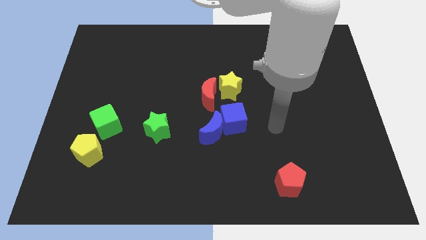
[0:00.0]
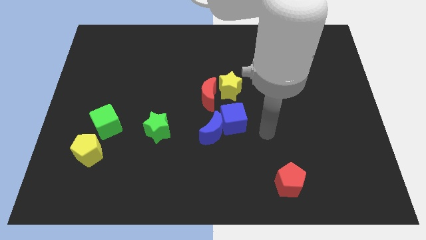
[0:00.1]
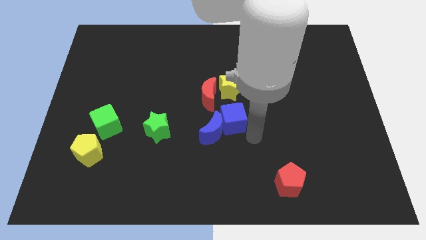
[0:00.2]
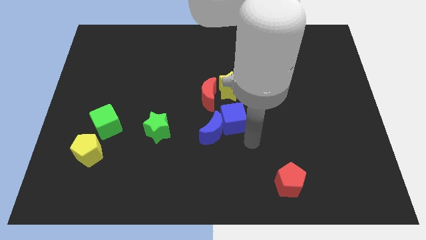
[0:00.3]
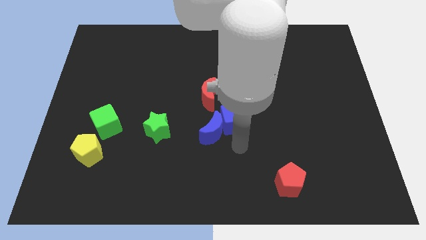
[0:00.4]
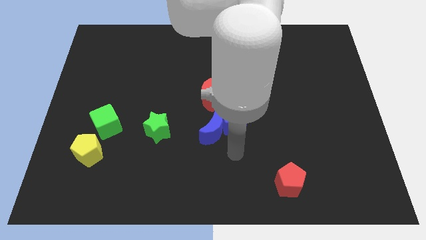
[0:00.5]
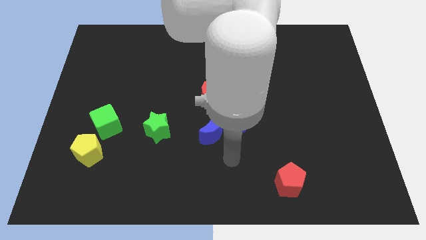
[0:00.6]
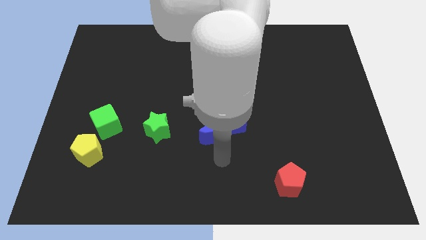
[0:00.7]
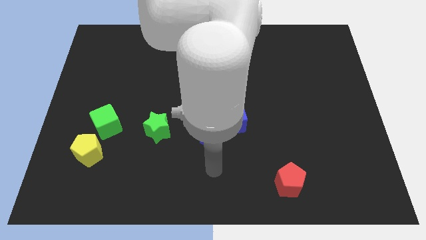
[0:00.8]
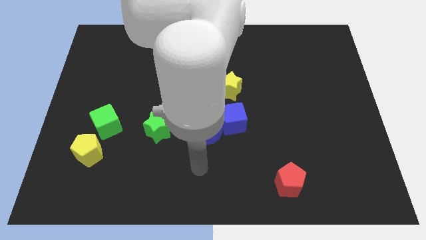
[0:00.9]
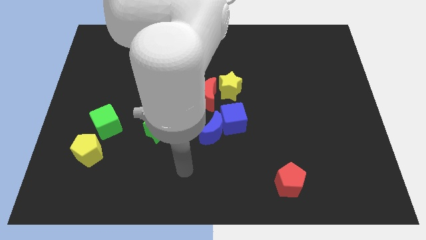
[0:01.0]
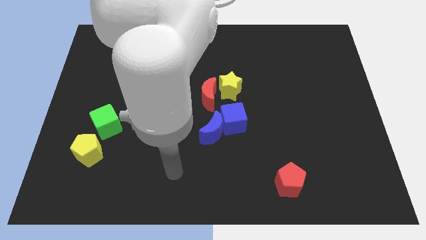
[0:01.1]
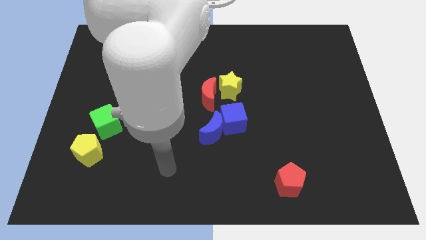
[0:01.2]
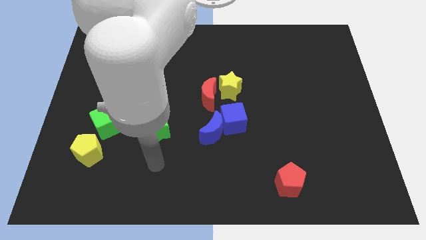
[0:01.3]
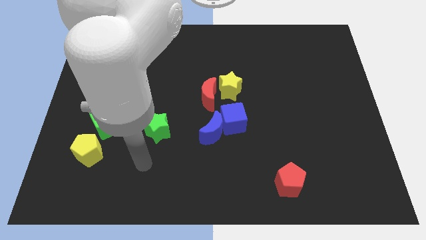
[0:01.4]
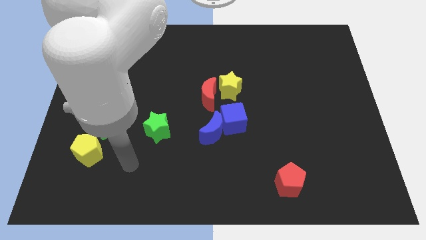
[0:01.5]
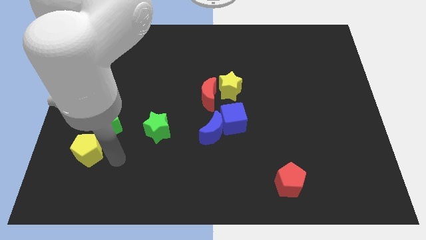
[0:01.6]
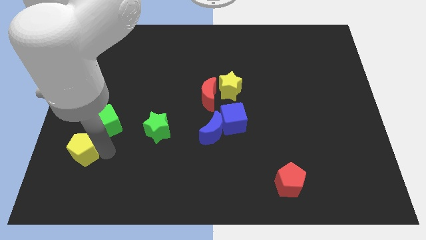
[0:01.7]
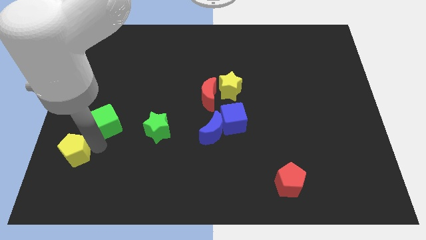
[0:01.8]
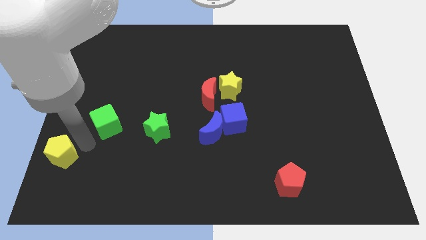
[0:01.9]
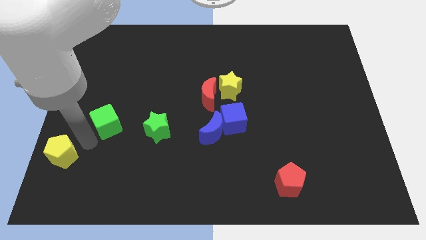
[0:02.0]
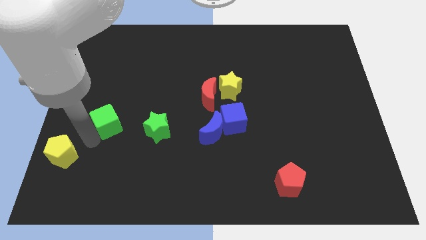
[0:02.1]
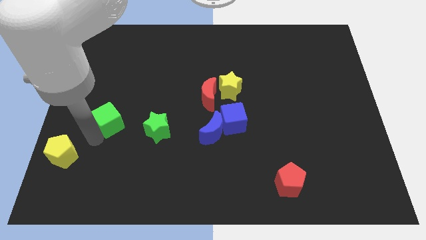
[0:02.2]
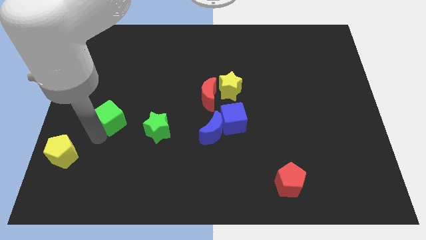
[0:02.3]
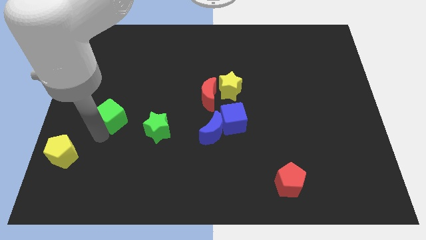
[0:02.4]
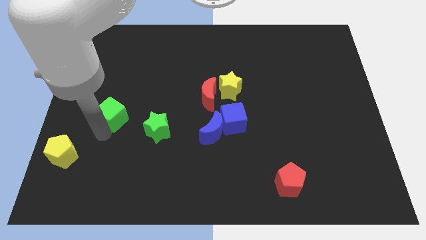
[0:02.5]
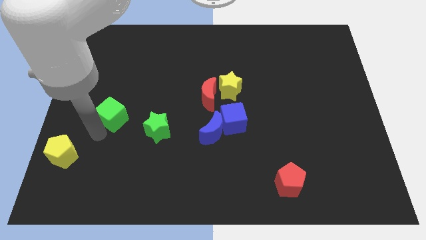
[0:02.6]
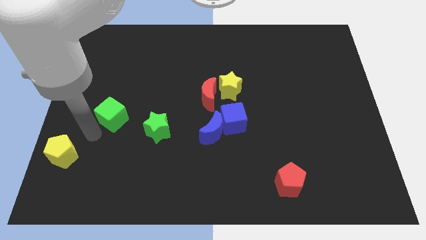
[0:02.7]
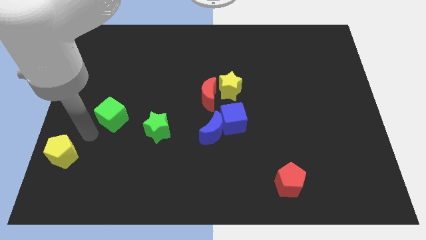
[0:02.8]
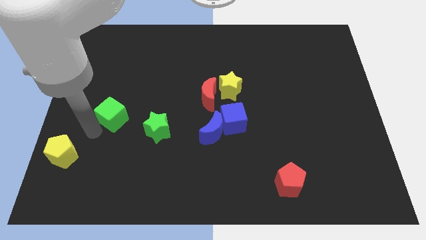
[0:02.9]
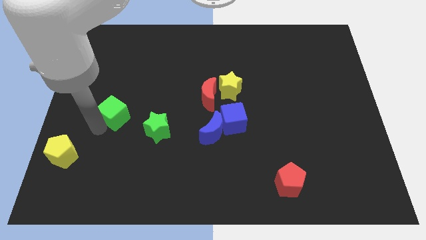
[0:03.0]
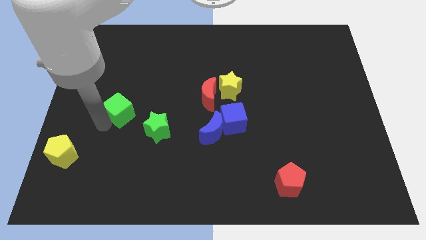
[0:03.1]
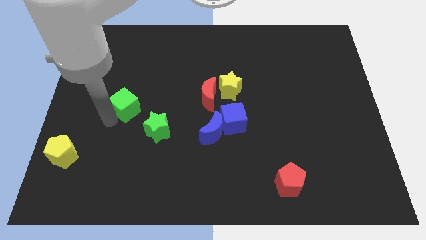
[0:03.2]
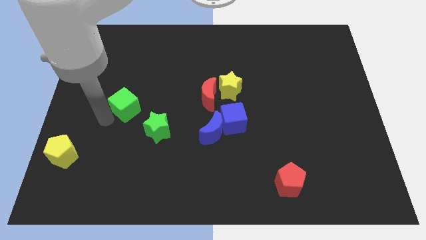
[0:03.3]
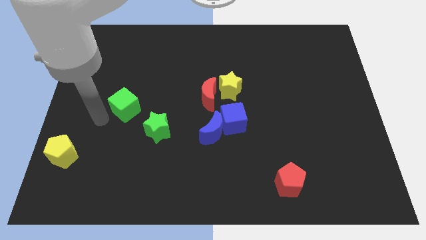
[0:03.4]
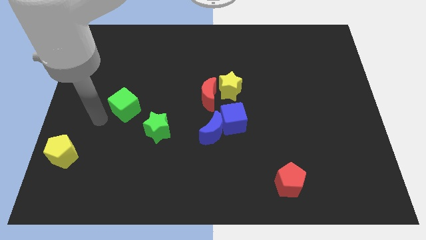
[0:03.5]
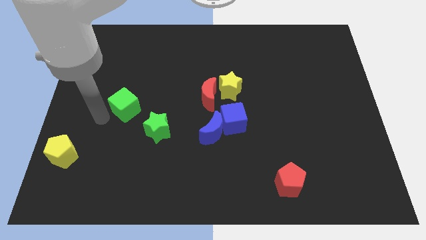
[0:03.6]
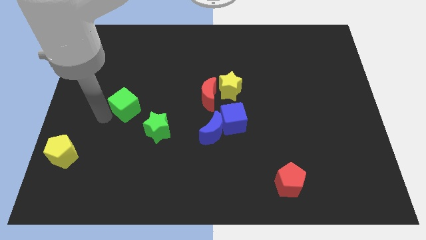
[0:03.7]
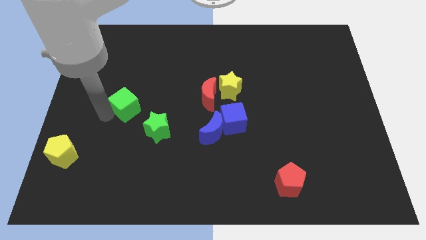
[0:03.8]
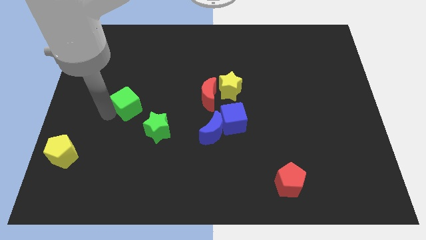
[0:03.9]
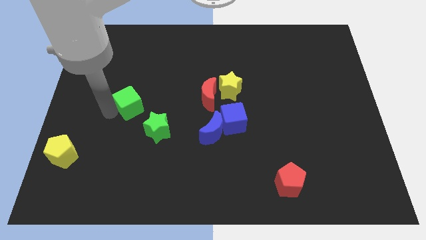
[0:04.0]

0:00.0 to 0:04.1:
slide the green cube up and to the right slightly

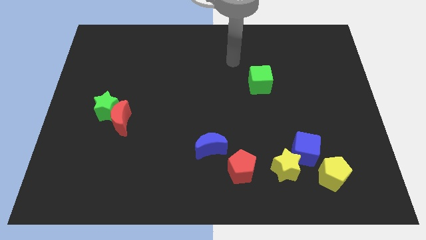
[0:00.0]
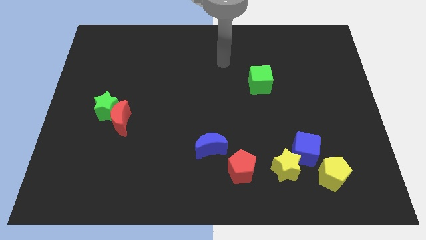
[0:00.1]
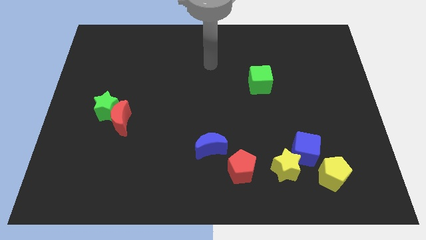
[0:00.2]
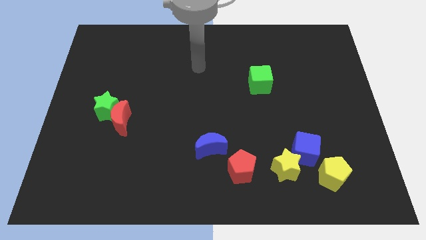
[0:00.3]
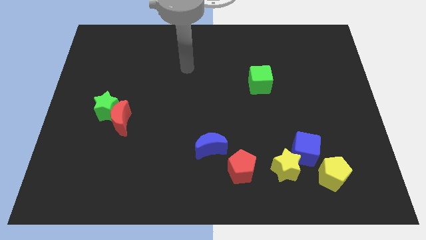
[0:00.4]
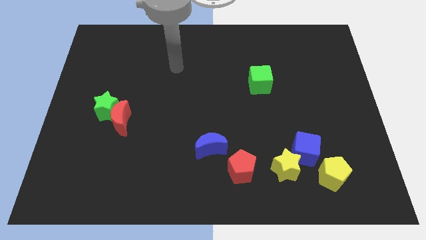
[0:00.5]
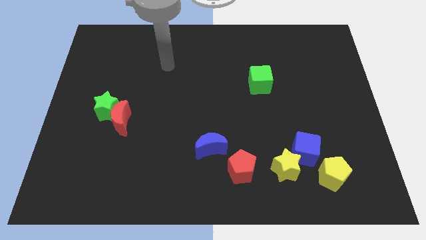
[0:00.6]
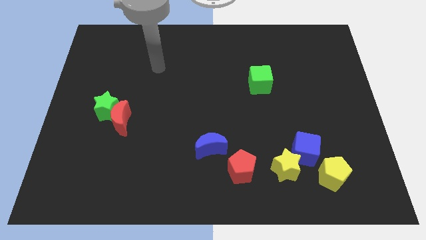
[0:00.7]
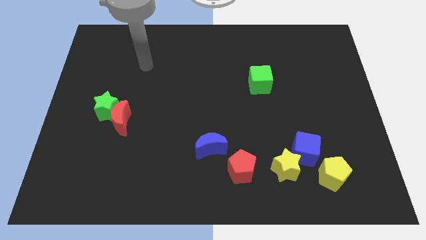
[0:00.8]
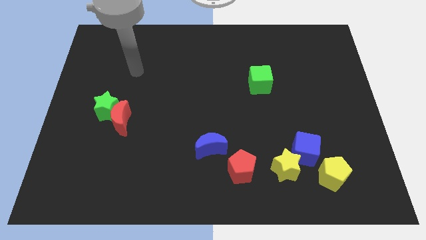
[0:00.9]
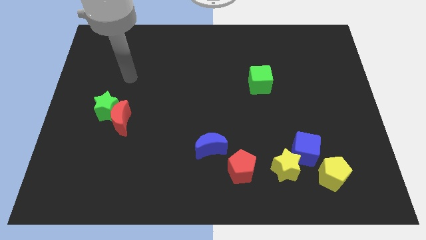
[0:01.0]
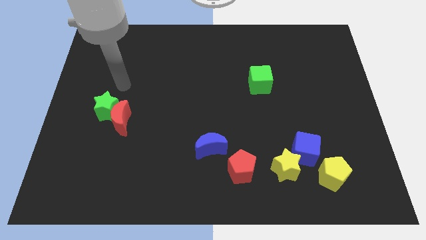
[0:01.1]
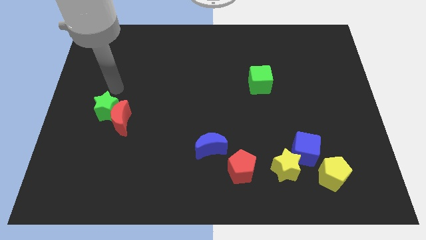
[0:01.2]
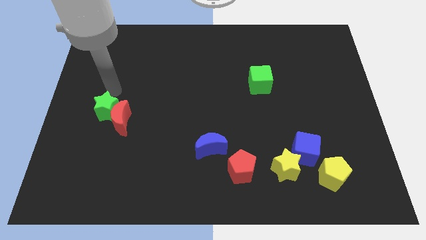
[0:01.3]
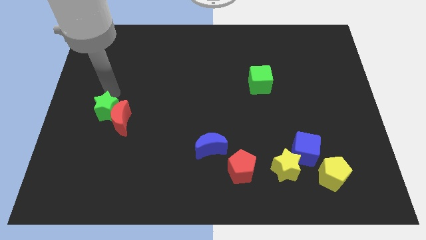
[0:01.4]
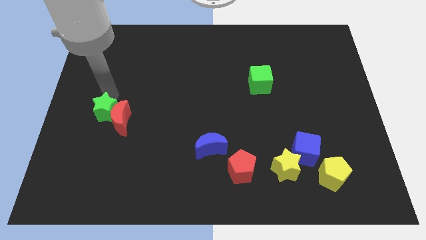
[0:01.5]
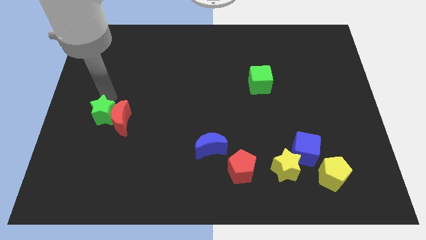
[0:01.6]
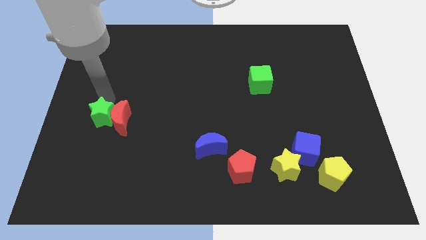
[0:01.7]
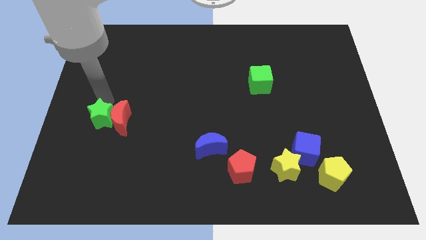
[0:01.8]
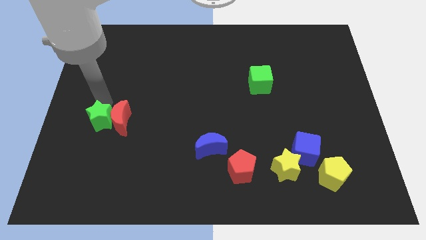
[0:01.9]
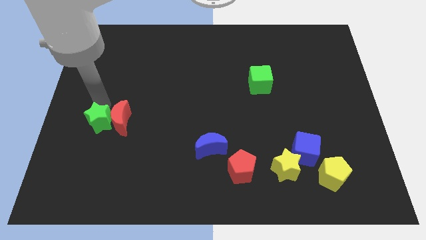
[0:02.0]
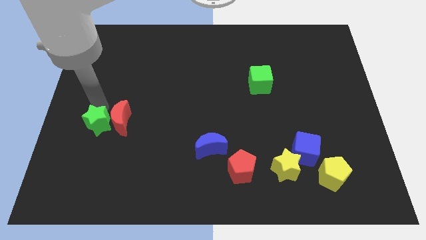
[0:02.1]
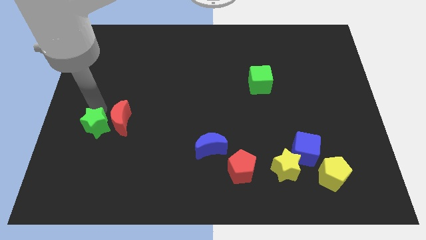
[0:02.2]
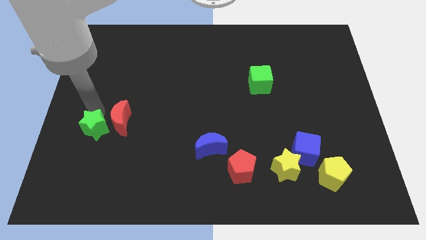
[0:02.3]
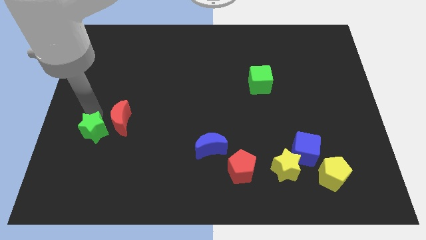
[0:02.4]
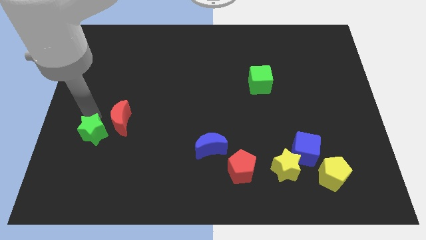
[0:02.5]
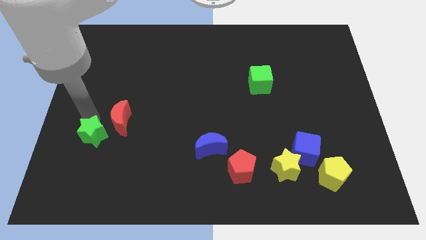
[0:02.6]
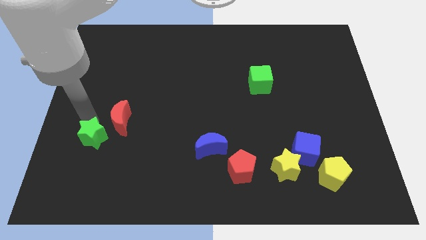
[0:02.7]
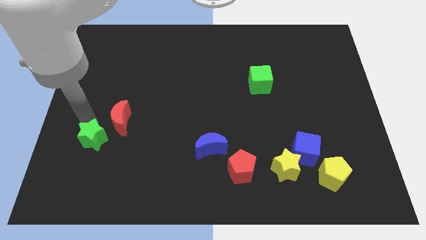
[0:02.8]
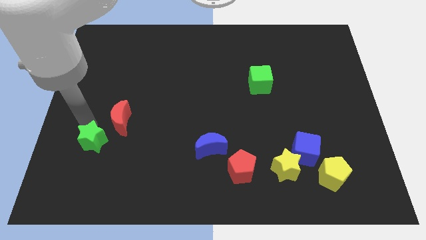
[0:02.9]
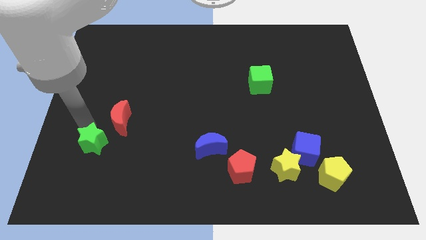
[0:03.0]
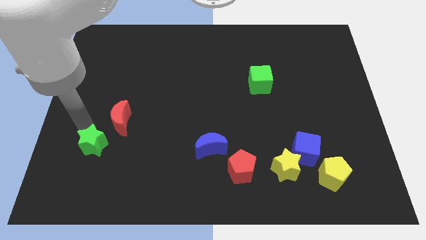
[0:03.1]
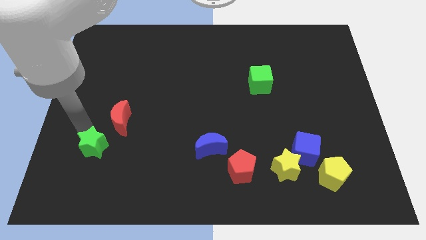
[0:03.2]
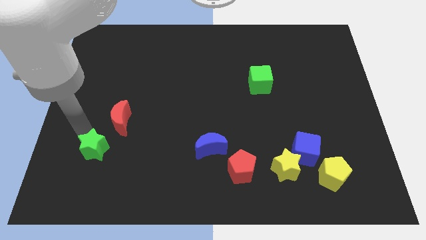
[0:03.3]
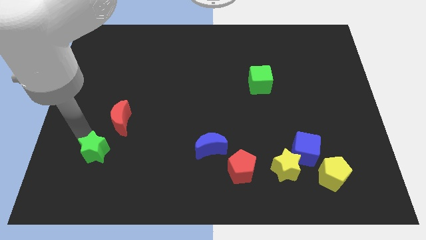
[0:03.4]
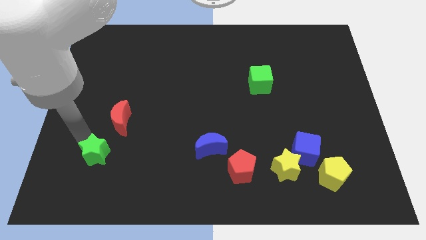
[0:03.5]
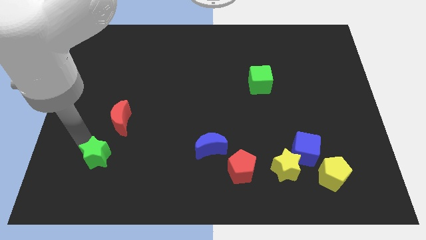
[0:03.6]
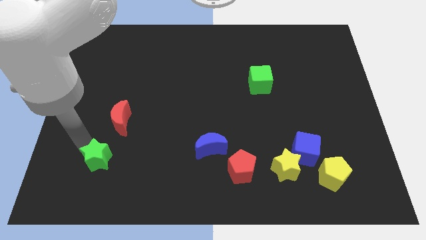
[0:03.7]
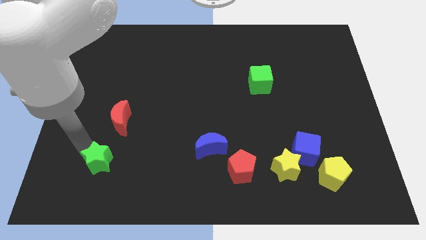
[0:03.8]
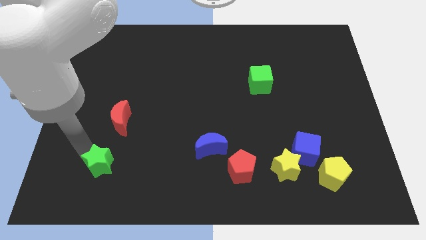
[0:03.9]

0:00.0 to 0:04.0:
move the green star down and to the right a little
